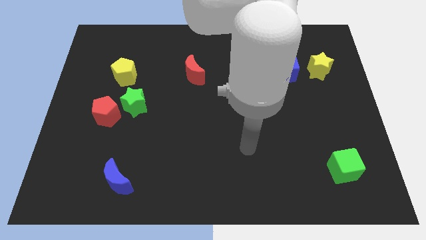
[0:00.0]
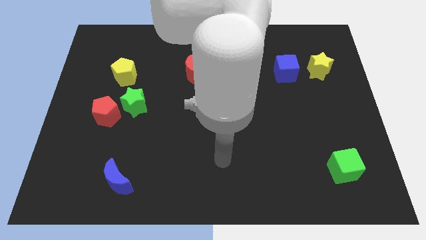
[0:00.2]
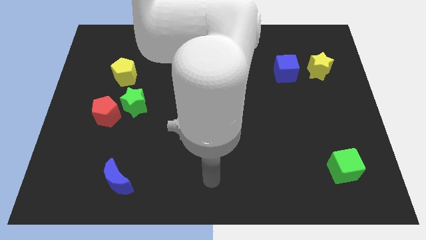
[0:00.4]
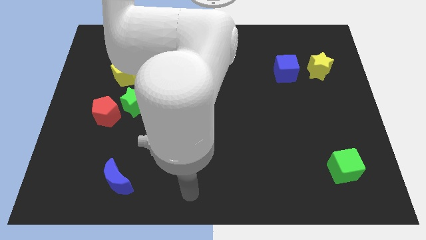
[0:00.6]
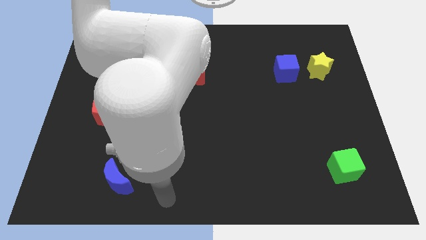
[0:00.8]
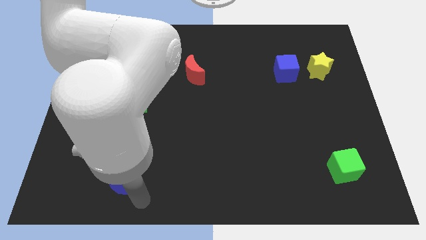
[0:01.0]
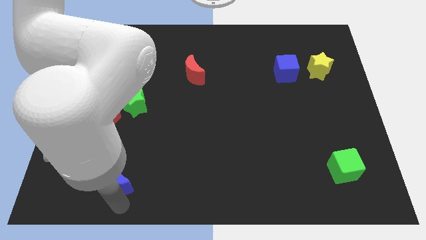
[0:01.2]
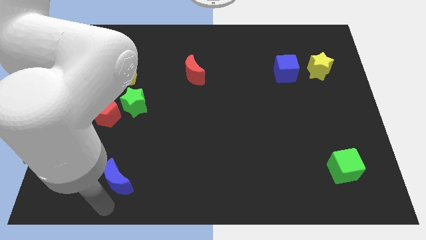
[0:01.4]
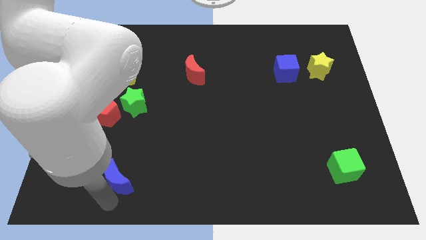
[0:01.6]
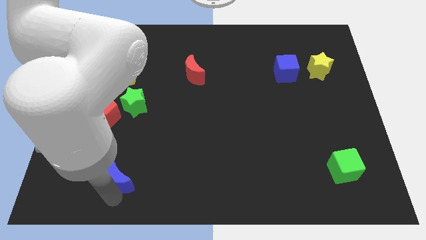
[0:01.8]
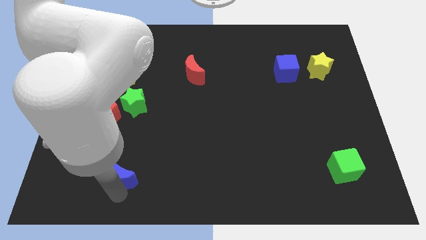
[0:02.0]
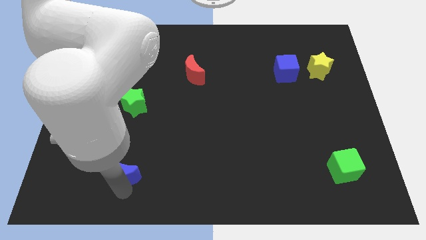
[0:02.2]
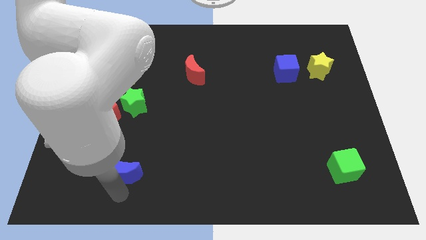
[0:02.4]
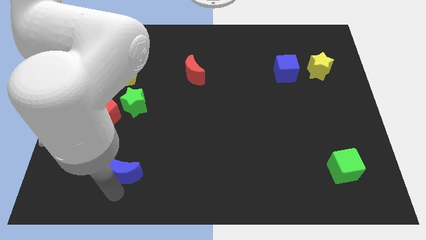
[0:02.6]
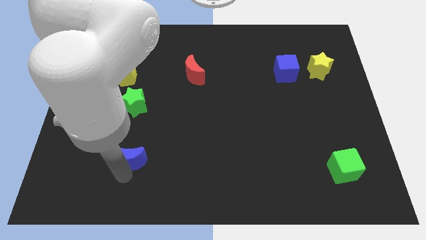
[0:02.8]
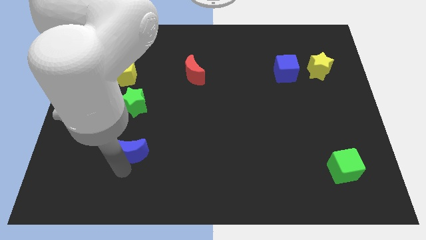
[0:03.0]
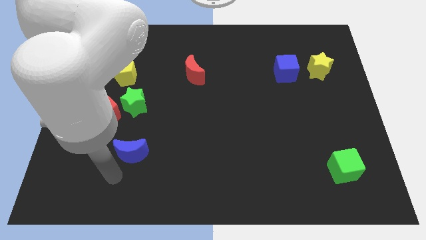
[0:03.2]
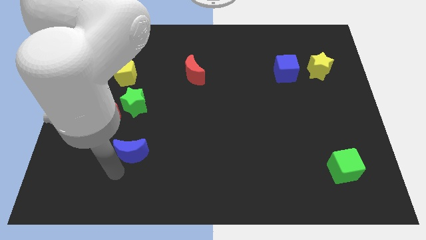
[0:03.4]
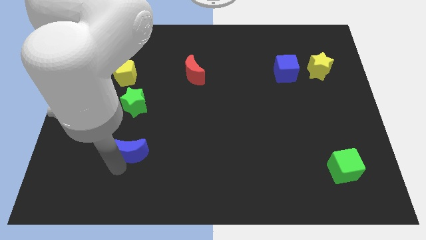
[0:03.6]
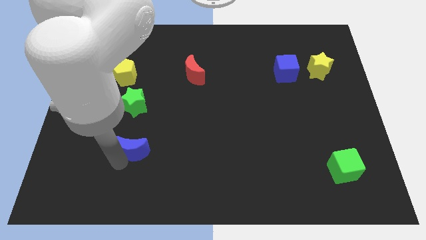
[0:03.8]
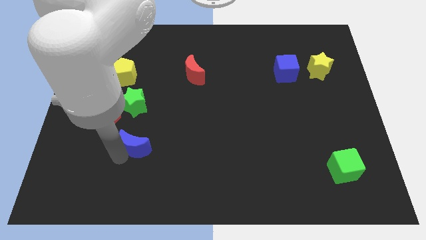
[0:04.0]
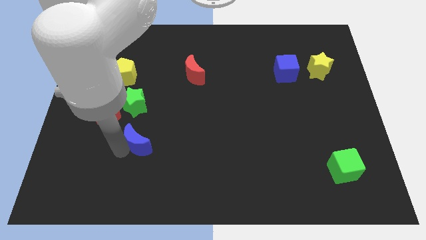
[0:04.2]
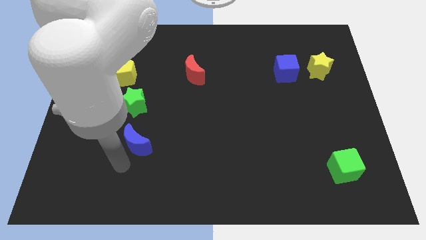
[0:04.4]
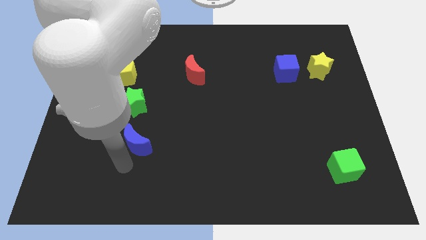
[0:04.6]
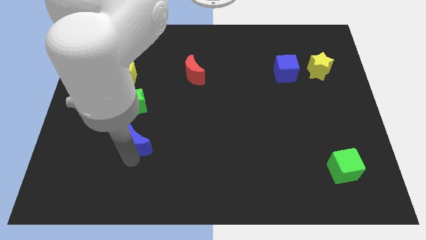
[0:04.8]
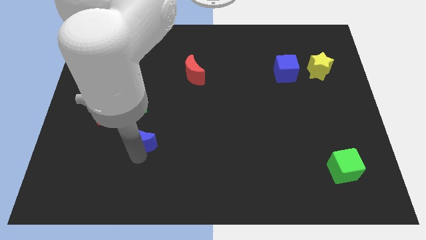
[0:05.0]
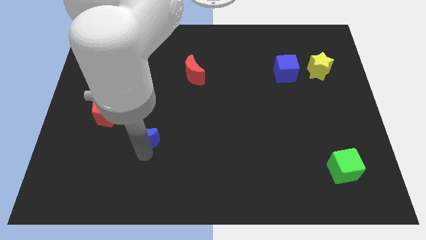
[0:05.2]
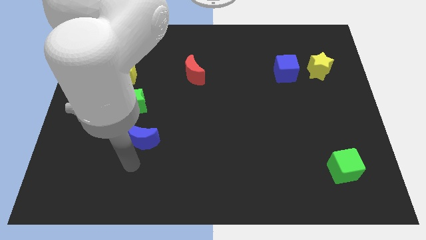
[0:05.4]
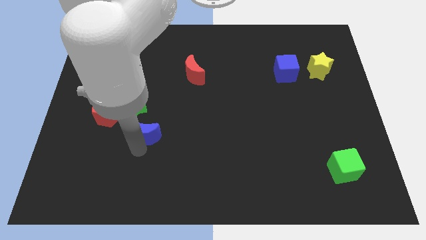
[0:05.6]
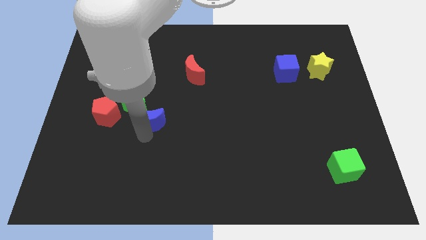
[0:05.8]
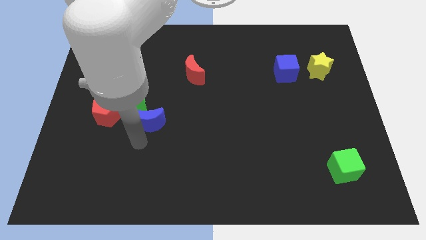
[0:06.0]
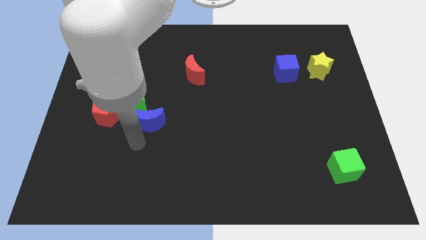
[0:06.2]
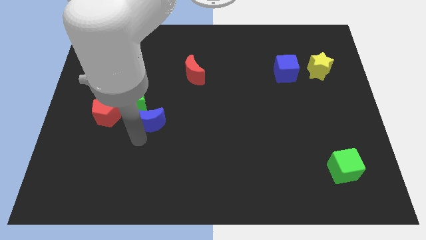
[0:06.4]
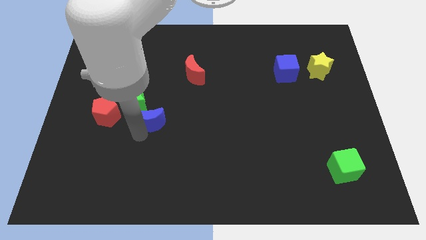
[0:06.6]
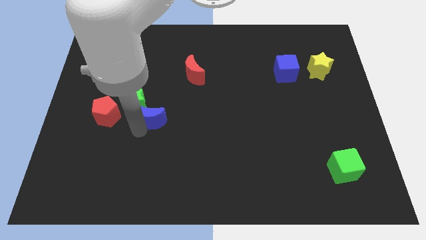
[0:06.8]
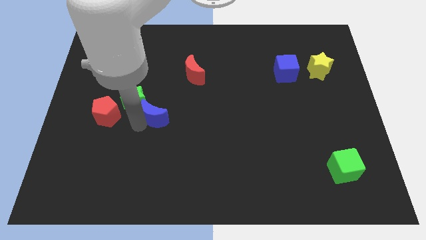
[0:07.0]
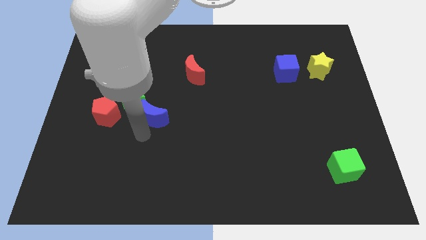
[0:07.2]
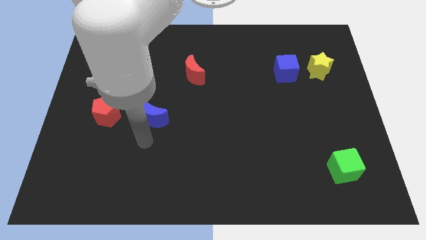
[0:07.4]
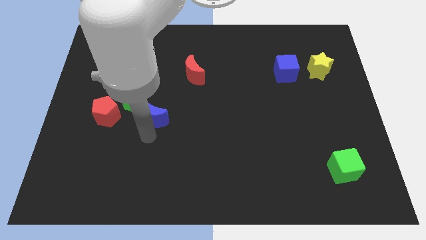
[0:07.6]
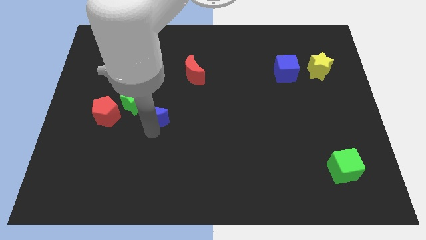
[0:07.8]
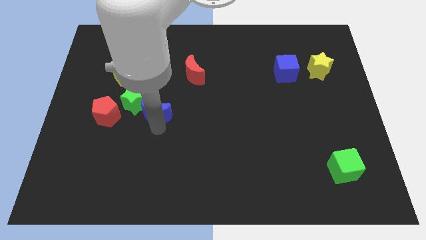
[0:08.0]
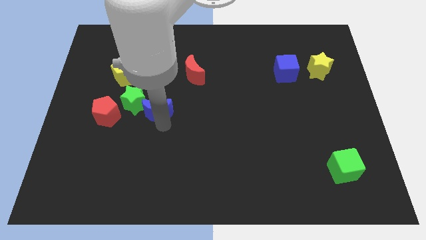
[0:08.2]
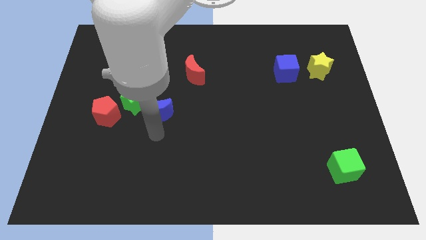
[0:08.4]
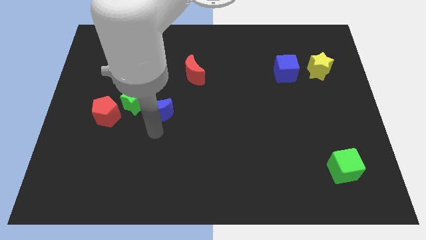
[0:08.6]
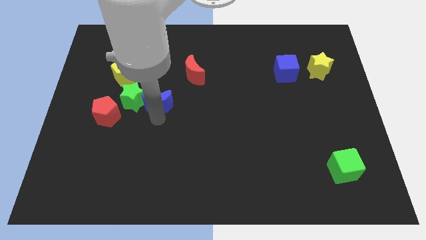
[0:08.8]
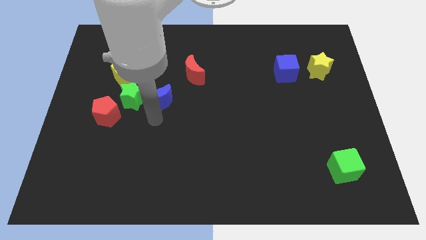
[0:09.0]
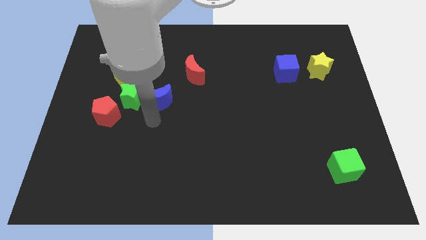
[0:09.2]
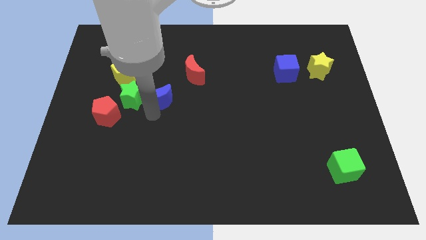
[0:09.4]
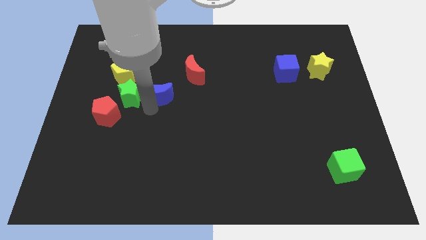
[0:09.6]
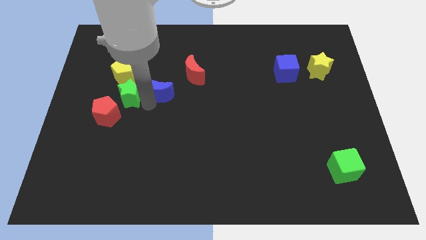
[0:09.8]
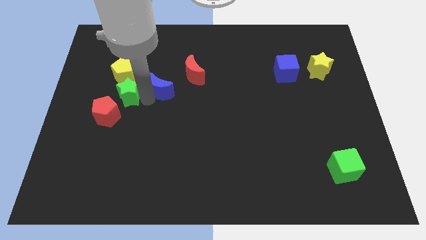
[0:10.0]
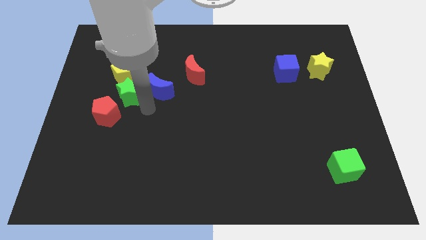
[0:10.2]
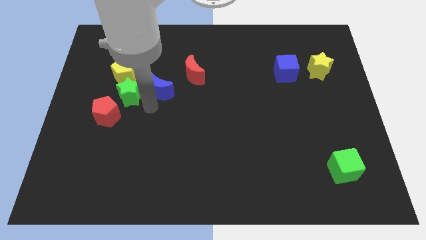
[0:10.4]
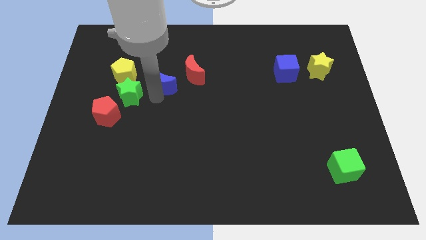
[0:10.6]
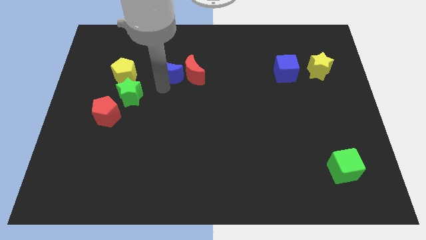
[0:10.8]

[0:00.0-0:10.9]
push the blue moon diagonally up and to the left of the red moon

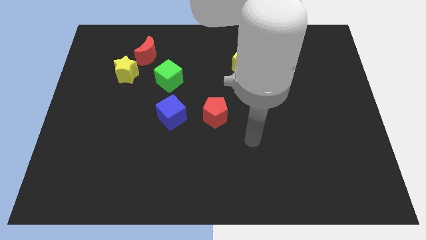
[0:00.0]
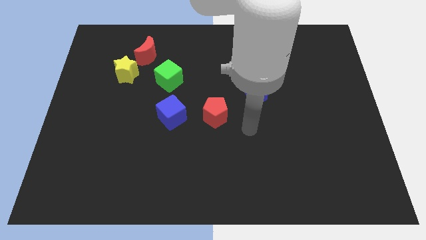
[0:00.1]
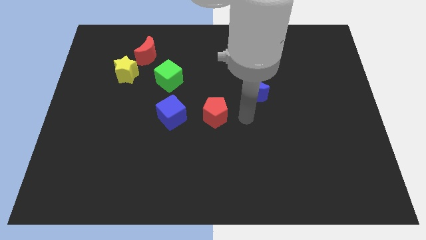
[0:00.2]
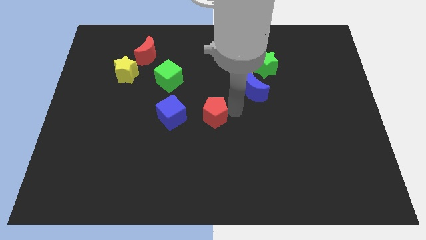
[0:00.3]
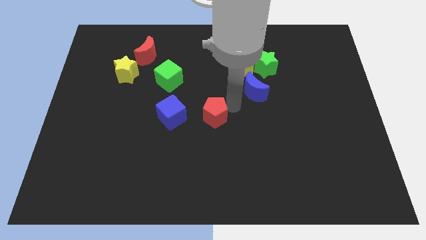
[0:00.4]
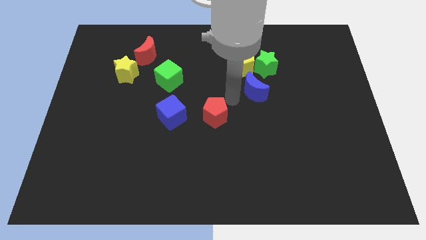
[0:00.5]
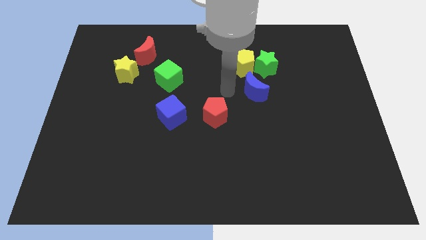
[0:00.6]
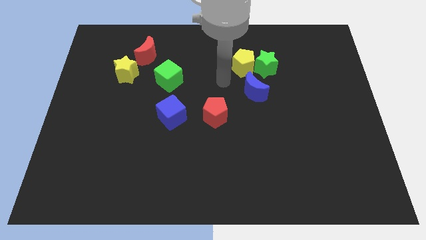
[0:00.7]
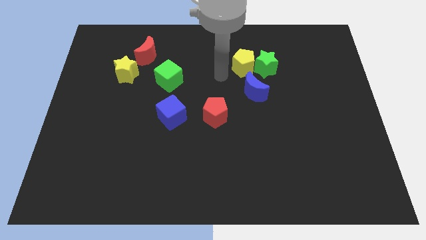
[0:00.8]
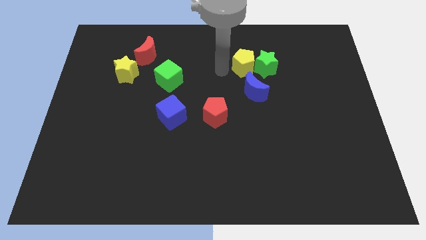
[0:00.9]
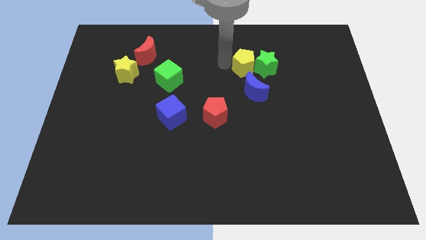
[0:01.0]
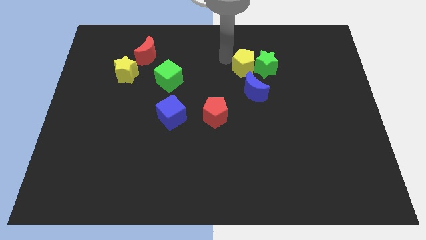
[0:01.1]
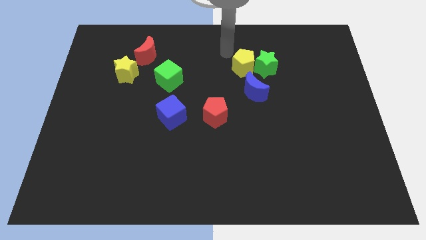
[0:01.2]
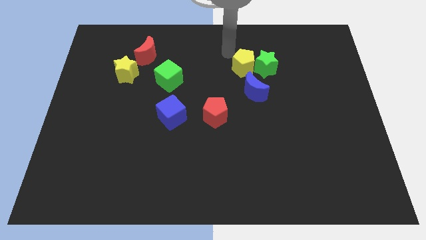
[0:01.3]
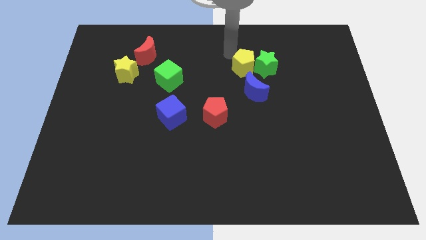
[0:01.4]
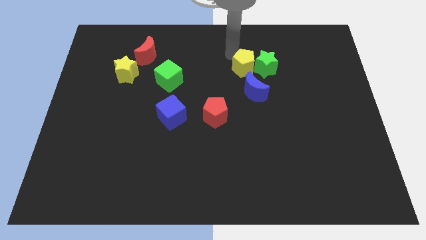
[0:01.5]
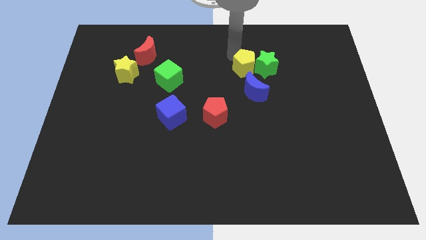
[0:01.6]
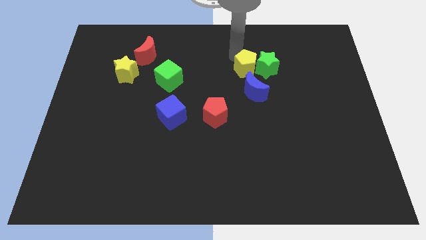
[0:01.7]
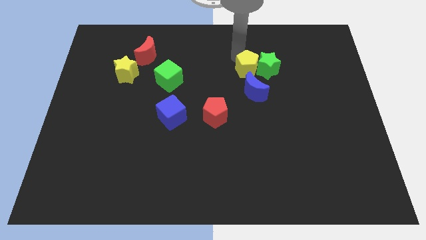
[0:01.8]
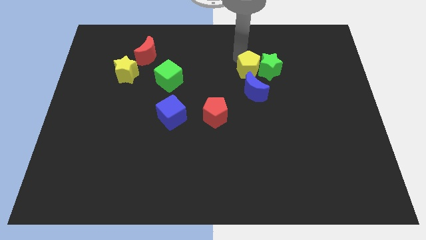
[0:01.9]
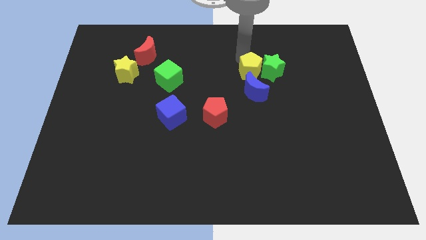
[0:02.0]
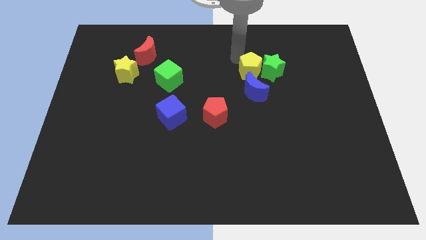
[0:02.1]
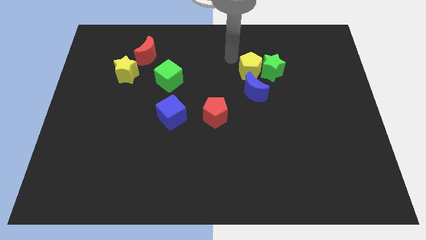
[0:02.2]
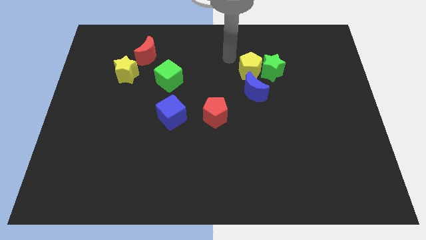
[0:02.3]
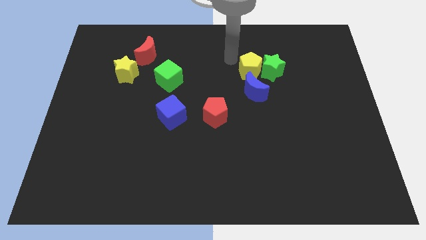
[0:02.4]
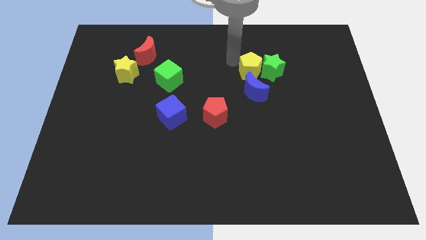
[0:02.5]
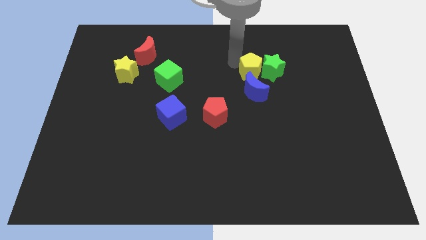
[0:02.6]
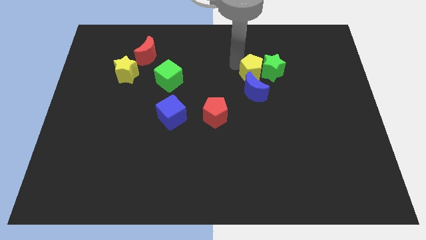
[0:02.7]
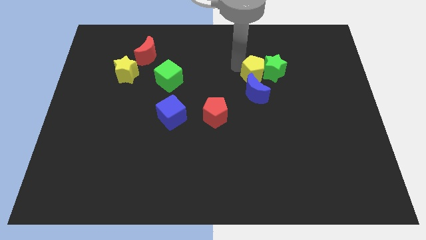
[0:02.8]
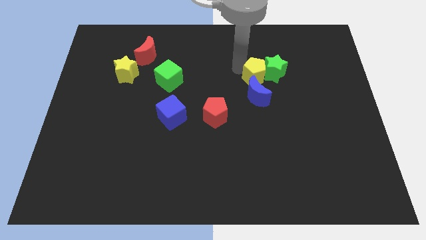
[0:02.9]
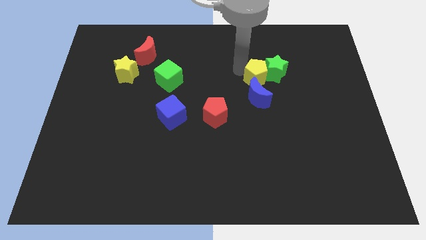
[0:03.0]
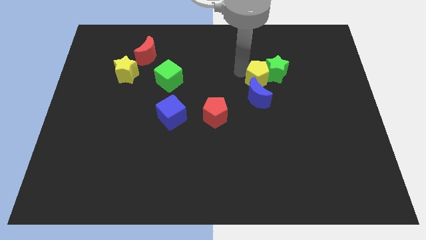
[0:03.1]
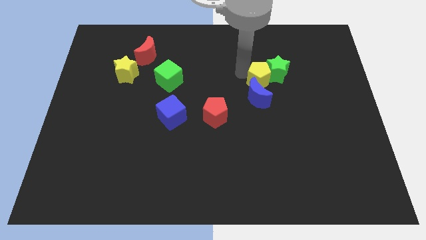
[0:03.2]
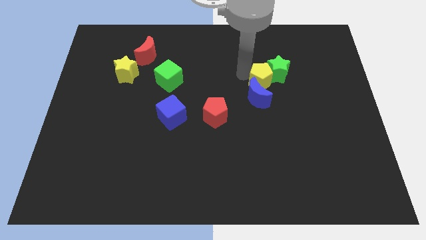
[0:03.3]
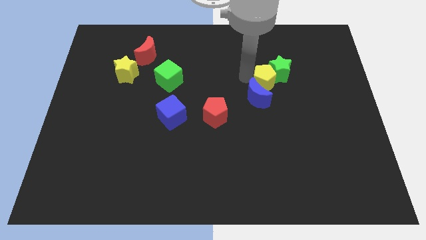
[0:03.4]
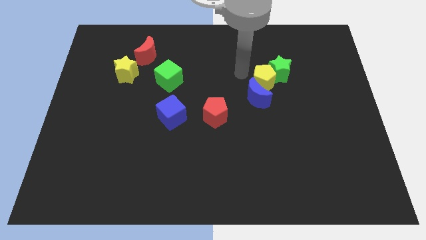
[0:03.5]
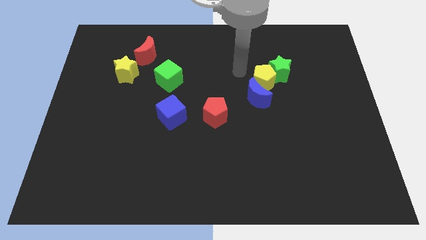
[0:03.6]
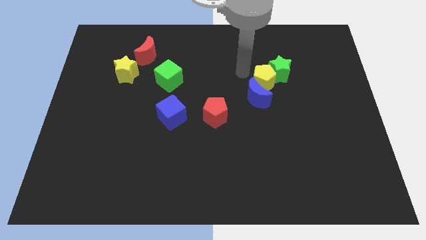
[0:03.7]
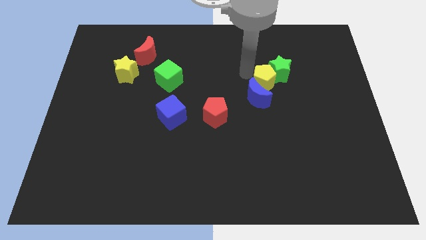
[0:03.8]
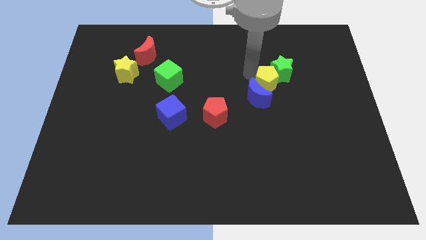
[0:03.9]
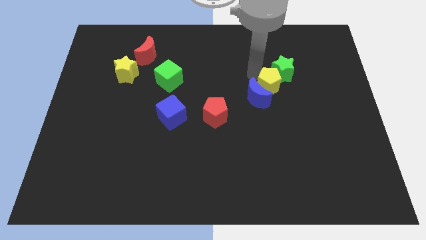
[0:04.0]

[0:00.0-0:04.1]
slide the yellow pentagon right of the blue moon
